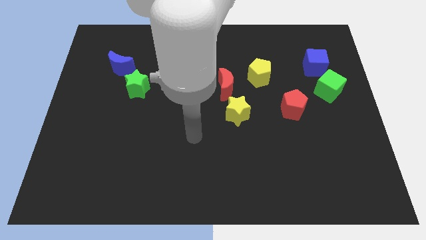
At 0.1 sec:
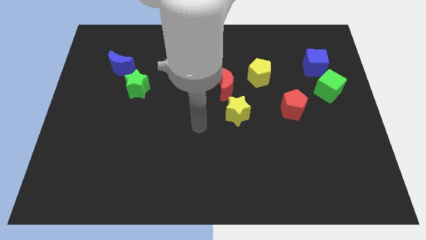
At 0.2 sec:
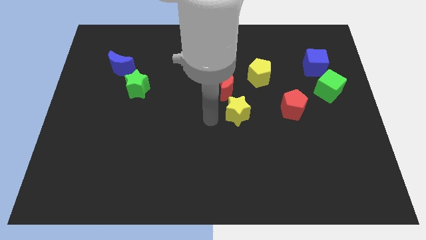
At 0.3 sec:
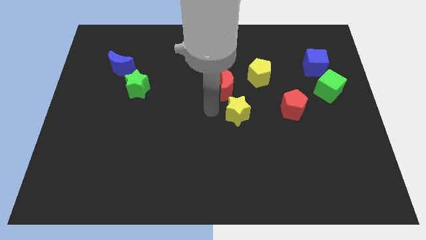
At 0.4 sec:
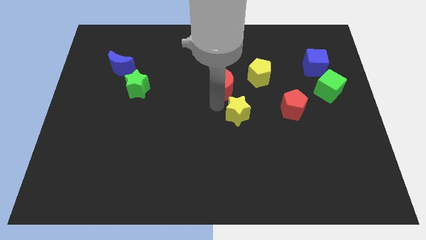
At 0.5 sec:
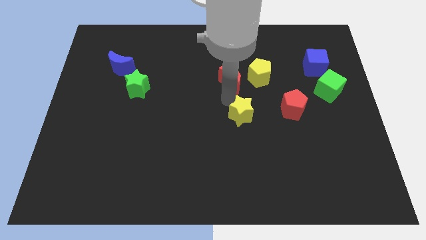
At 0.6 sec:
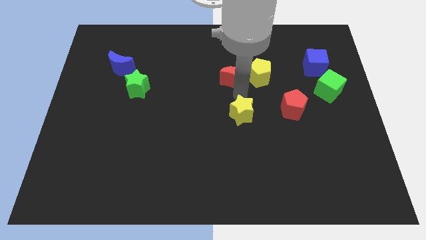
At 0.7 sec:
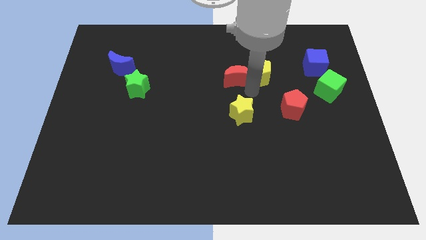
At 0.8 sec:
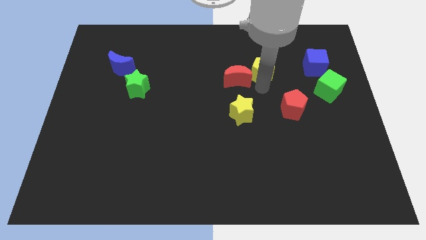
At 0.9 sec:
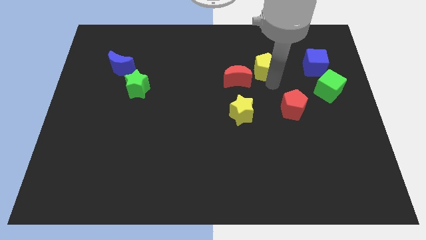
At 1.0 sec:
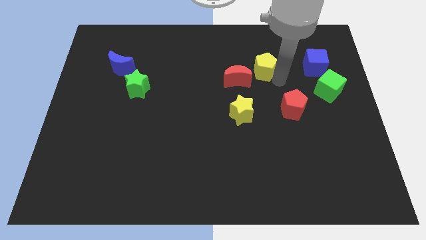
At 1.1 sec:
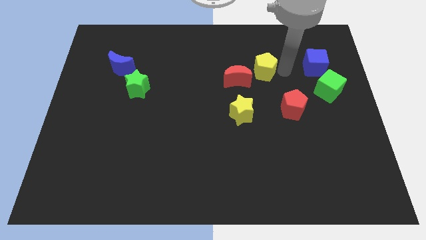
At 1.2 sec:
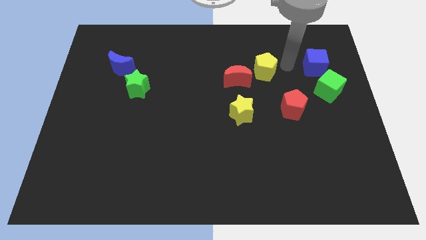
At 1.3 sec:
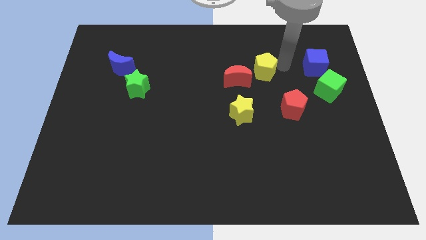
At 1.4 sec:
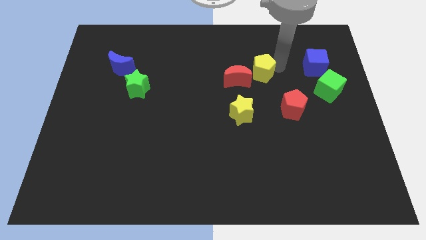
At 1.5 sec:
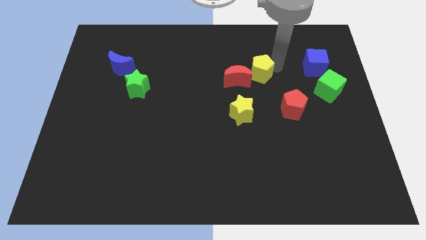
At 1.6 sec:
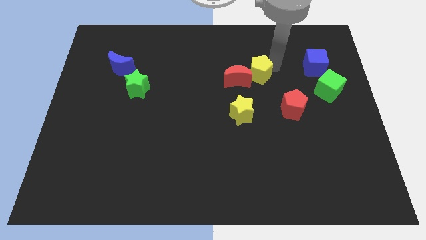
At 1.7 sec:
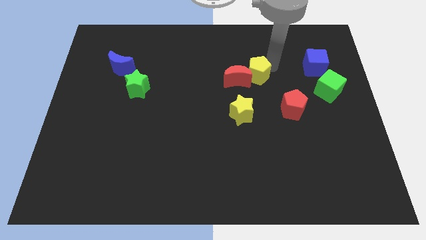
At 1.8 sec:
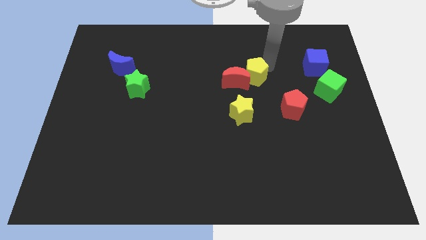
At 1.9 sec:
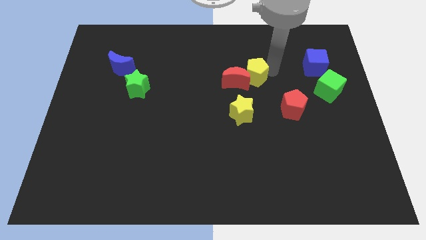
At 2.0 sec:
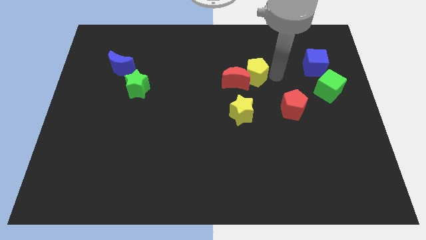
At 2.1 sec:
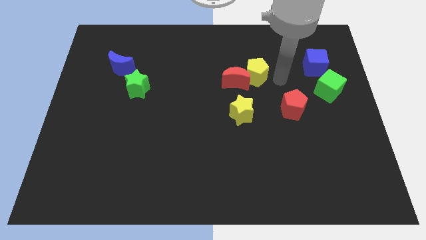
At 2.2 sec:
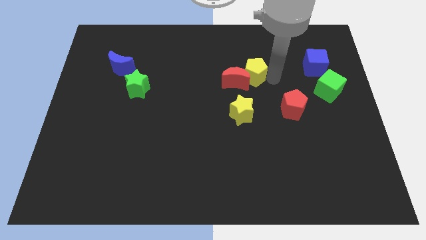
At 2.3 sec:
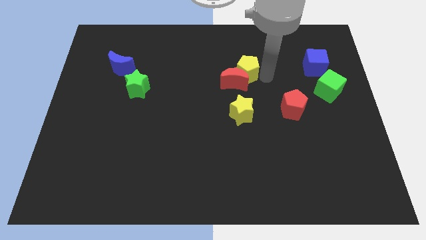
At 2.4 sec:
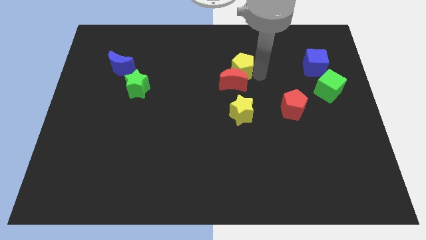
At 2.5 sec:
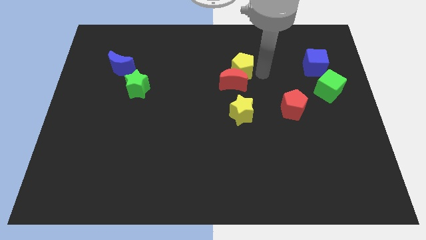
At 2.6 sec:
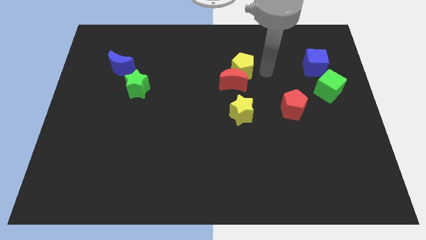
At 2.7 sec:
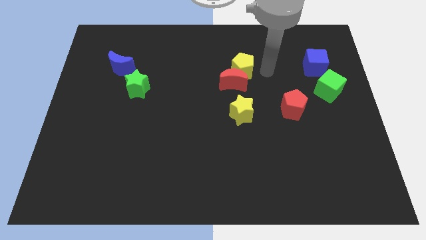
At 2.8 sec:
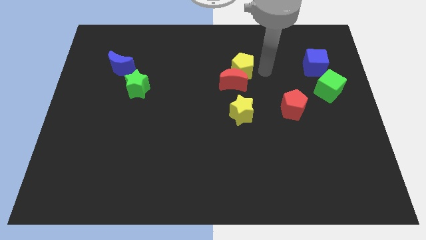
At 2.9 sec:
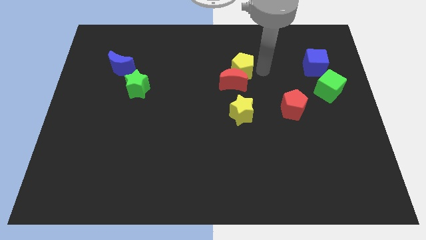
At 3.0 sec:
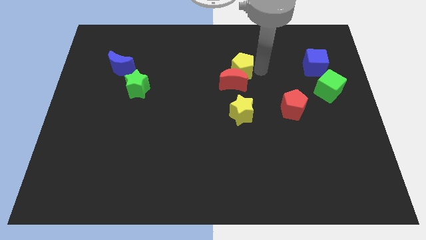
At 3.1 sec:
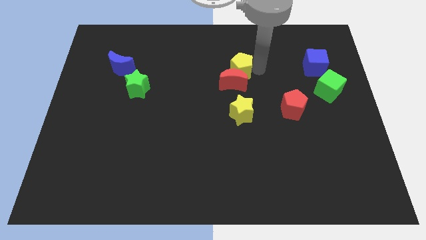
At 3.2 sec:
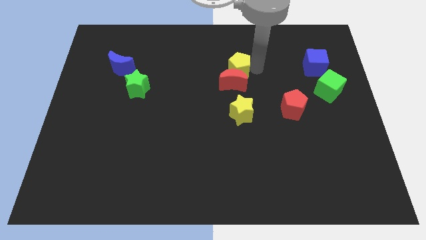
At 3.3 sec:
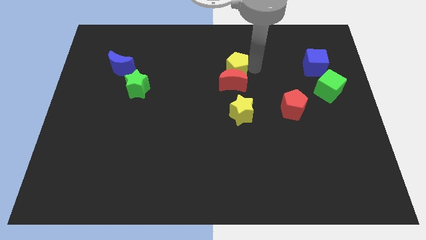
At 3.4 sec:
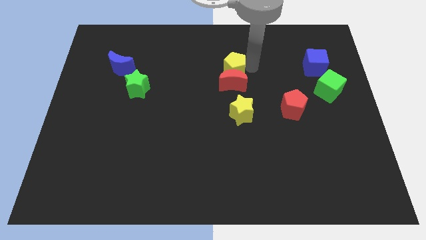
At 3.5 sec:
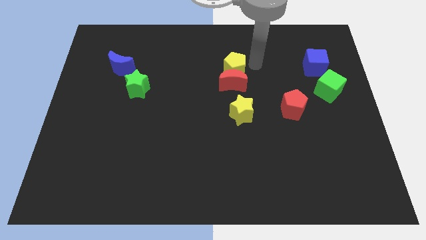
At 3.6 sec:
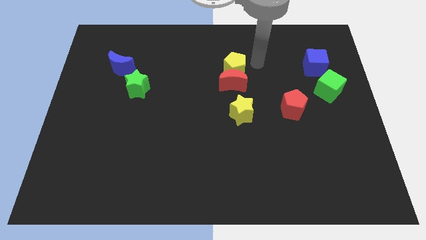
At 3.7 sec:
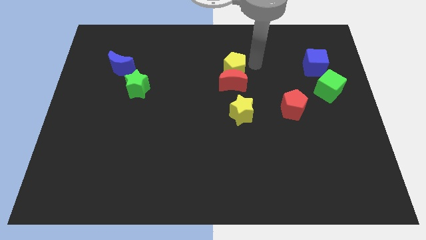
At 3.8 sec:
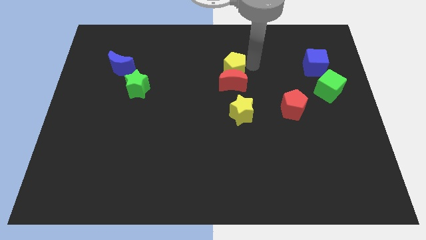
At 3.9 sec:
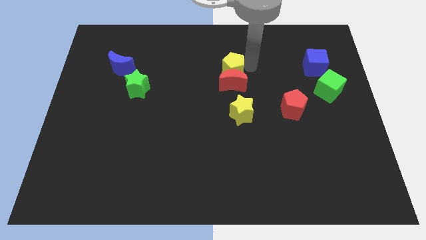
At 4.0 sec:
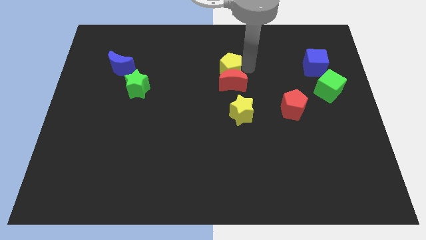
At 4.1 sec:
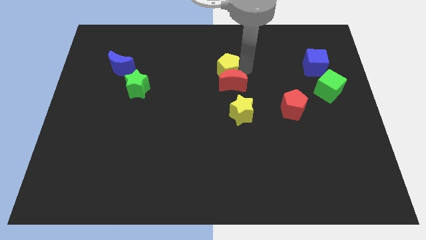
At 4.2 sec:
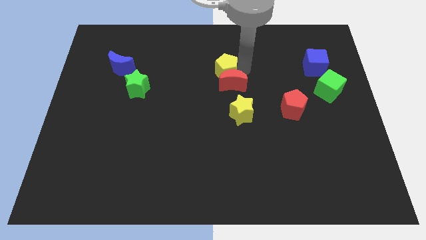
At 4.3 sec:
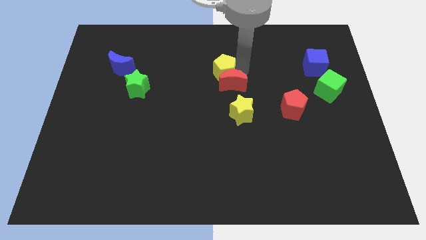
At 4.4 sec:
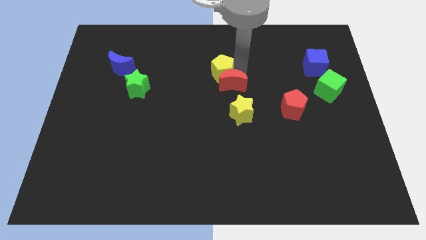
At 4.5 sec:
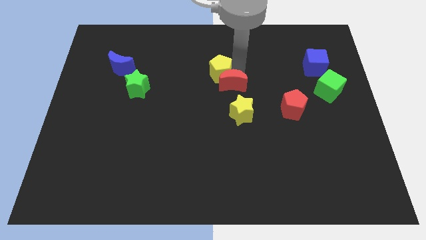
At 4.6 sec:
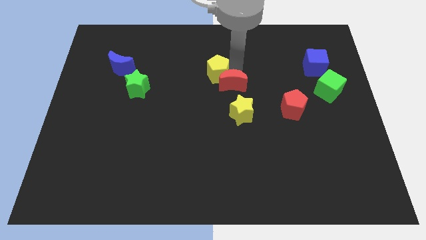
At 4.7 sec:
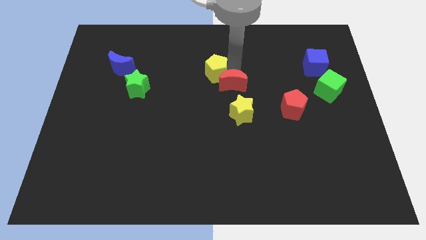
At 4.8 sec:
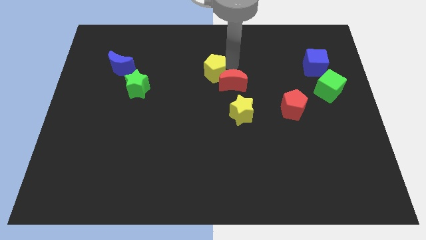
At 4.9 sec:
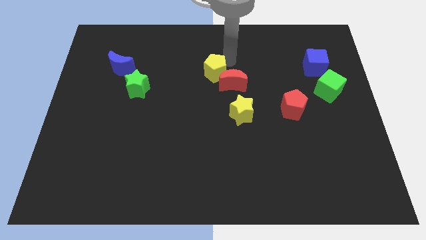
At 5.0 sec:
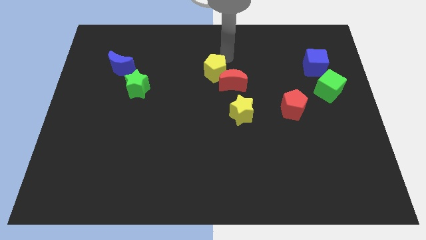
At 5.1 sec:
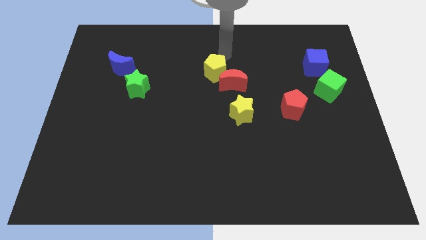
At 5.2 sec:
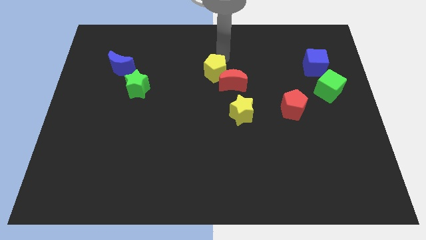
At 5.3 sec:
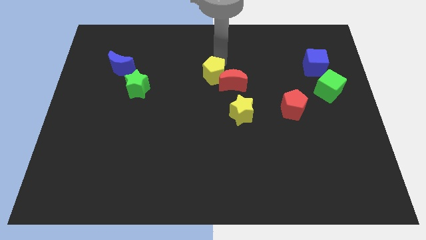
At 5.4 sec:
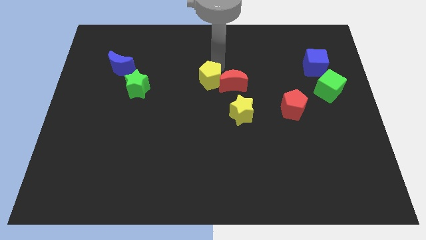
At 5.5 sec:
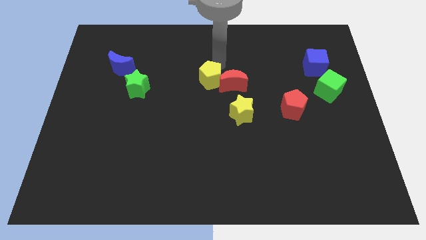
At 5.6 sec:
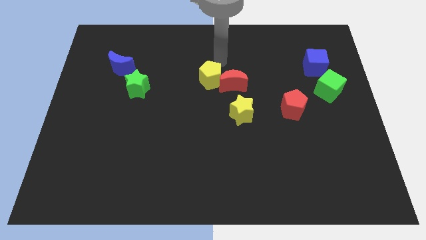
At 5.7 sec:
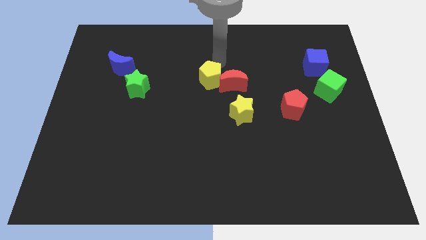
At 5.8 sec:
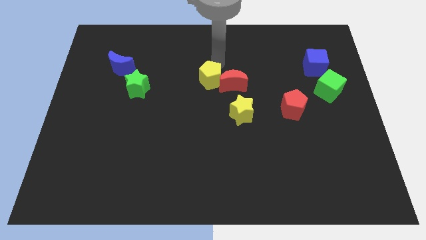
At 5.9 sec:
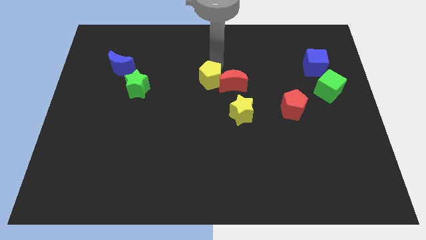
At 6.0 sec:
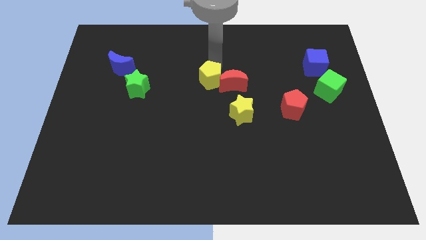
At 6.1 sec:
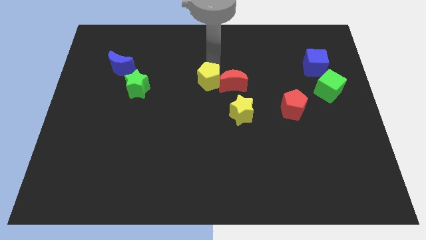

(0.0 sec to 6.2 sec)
push the yellow pentagon a little downwards and left diagonally

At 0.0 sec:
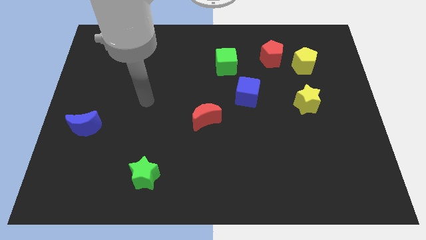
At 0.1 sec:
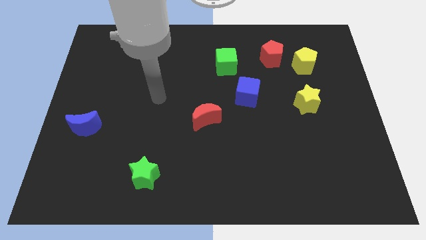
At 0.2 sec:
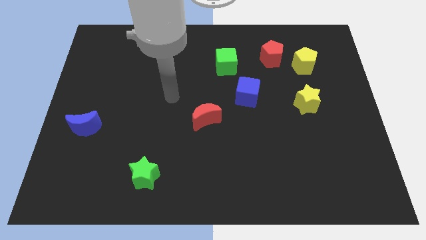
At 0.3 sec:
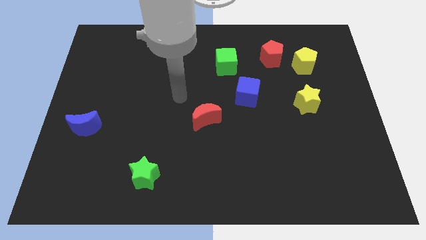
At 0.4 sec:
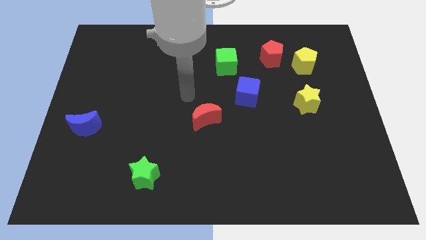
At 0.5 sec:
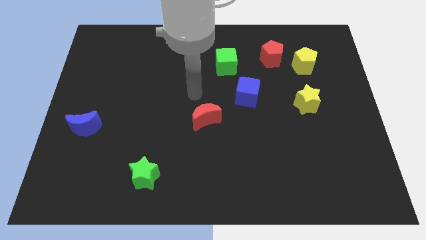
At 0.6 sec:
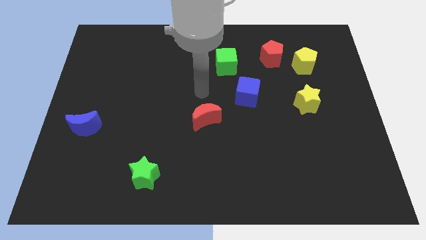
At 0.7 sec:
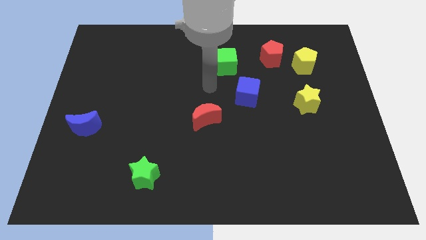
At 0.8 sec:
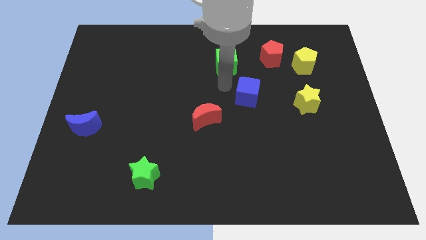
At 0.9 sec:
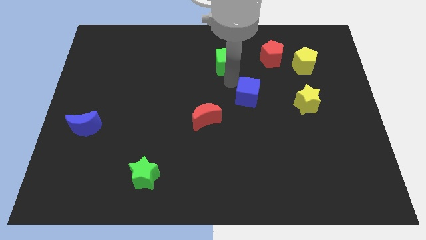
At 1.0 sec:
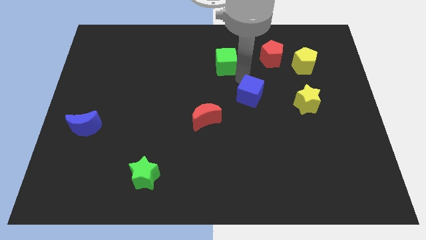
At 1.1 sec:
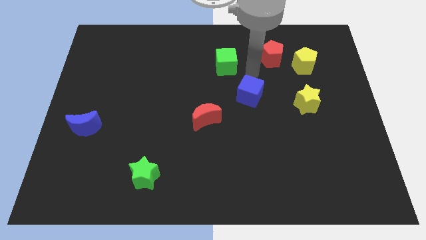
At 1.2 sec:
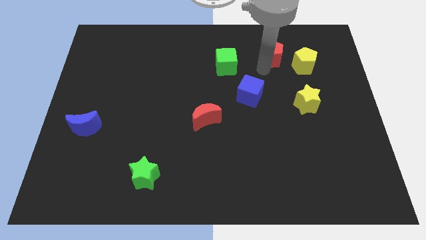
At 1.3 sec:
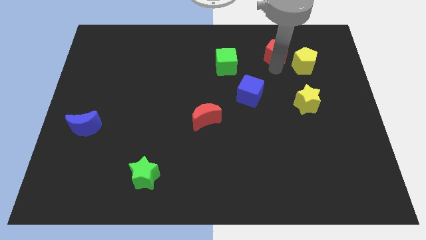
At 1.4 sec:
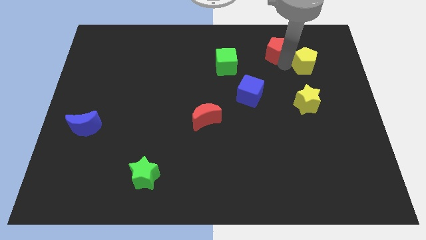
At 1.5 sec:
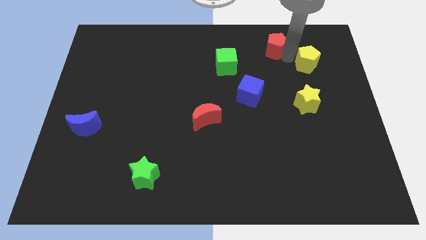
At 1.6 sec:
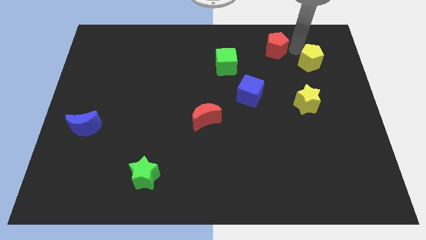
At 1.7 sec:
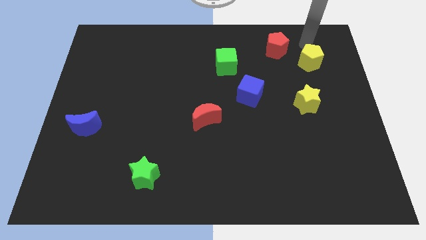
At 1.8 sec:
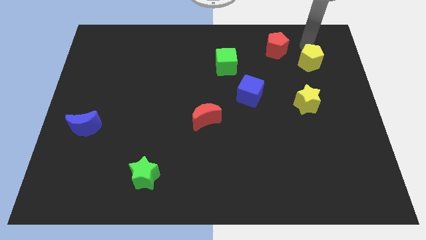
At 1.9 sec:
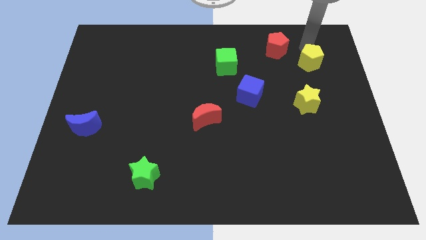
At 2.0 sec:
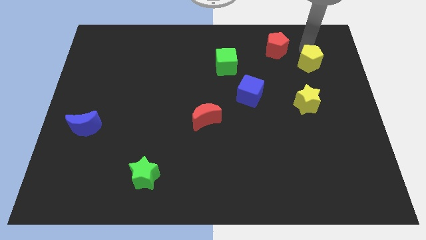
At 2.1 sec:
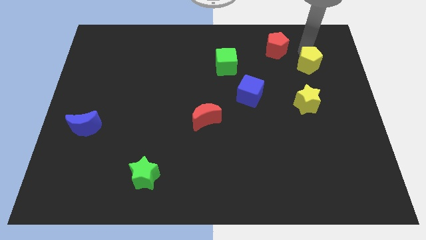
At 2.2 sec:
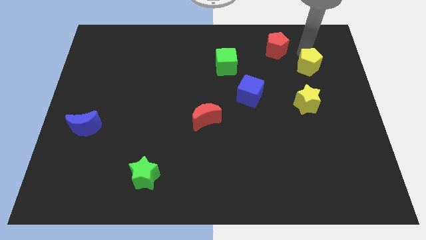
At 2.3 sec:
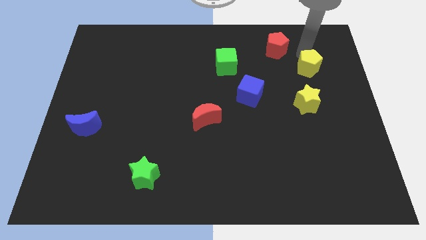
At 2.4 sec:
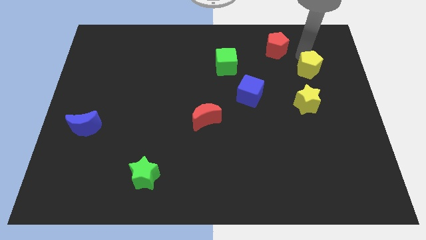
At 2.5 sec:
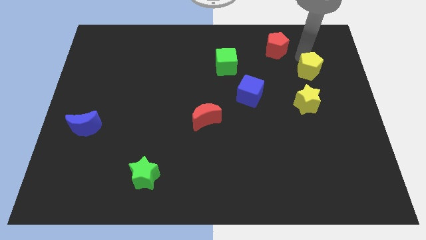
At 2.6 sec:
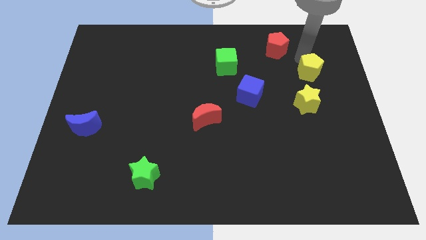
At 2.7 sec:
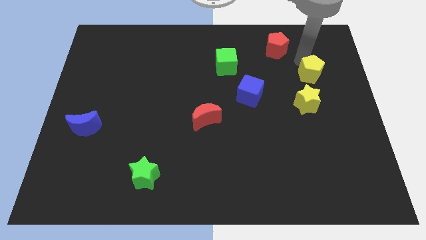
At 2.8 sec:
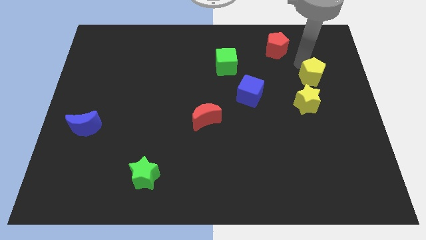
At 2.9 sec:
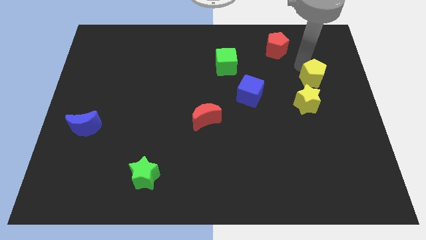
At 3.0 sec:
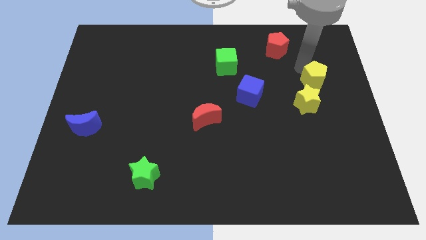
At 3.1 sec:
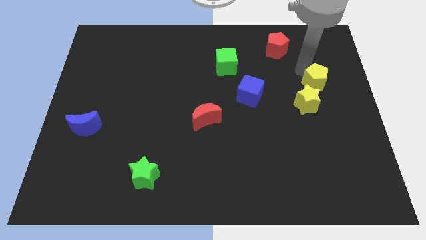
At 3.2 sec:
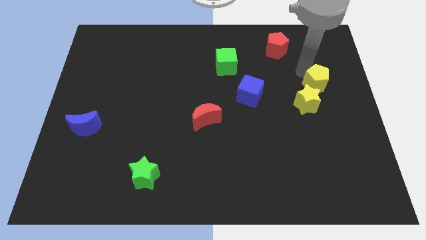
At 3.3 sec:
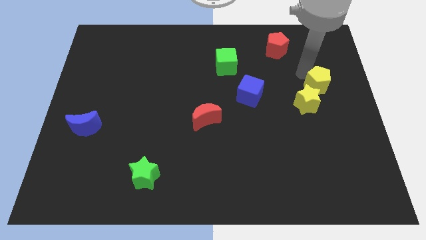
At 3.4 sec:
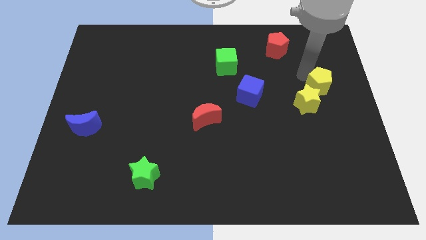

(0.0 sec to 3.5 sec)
slightly push the yellow pentagon downwards
